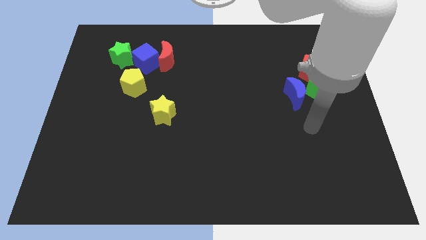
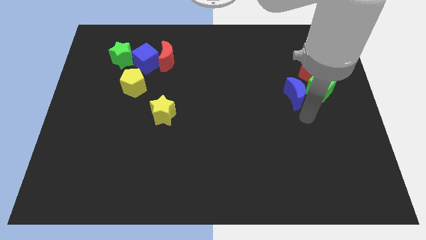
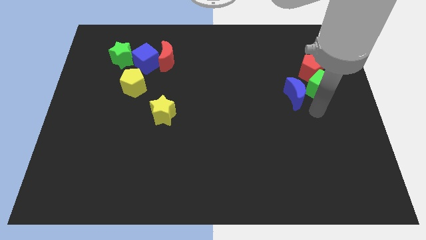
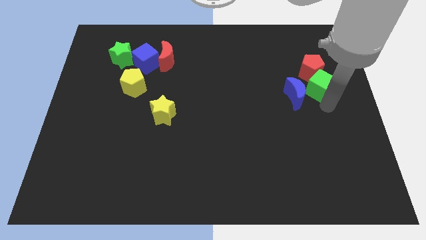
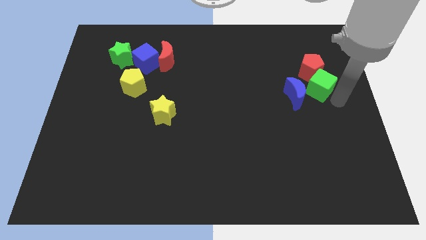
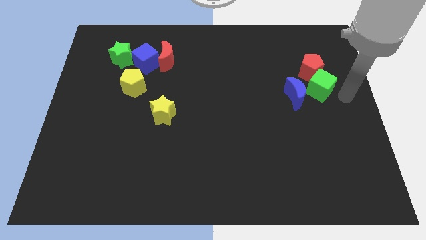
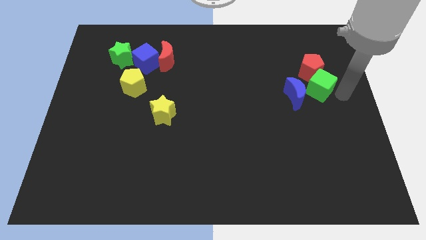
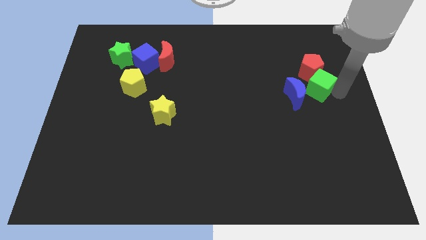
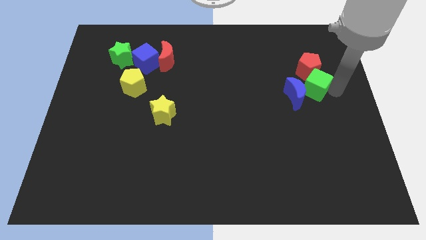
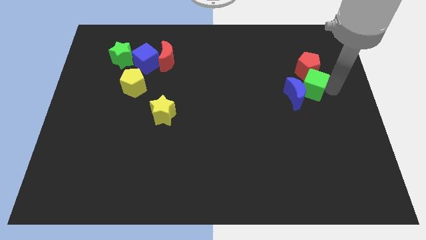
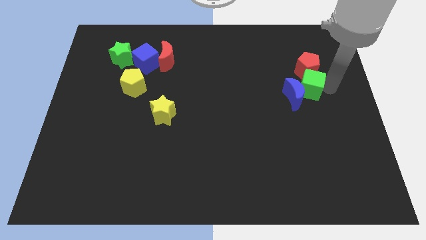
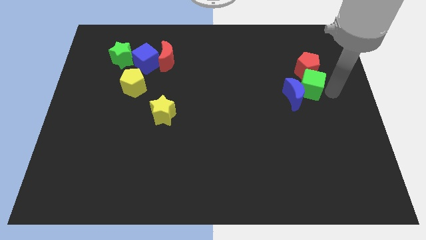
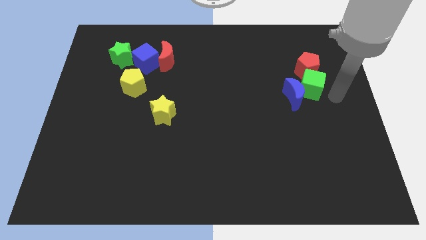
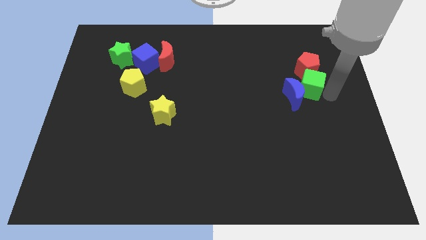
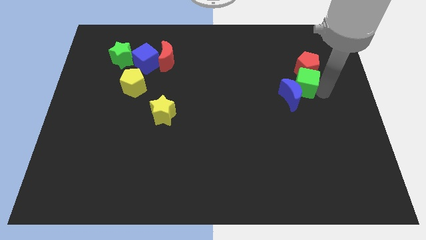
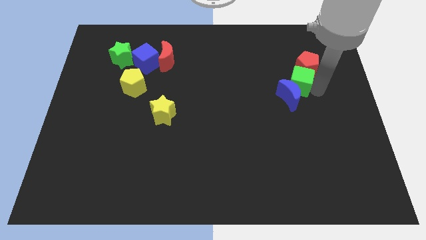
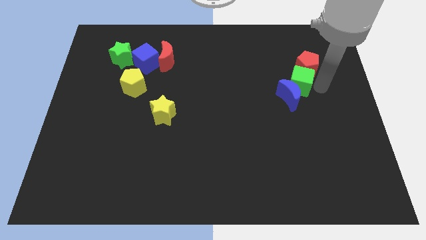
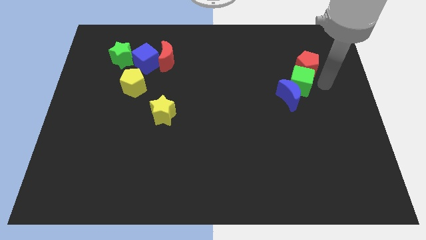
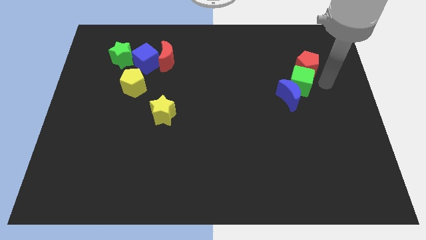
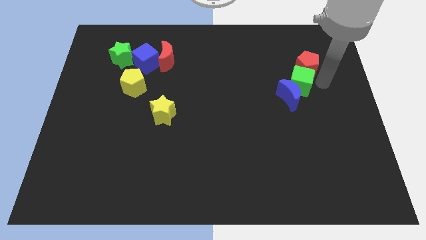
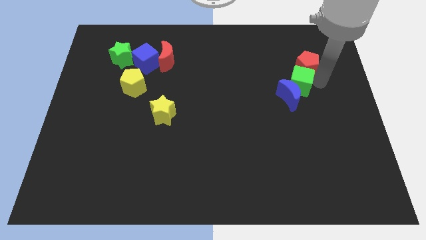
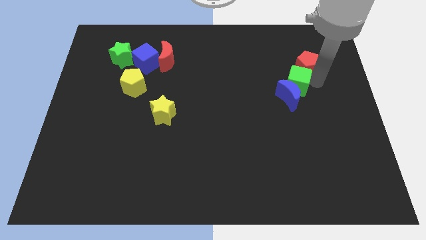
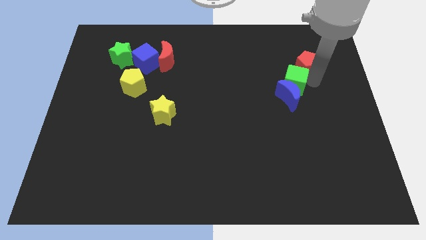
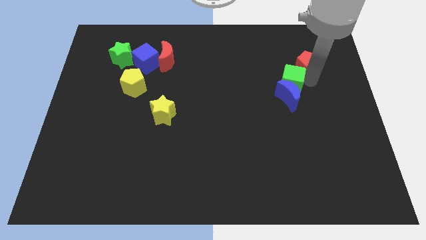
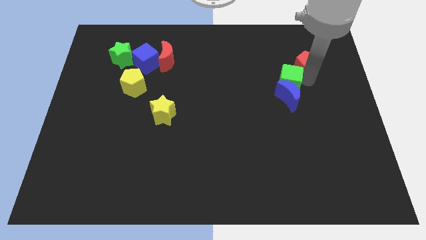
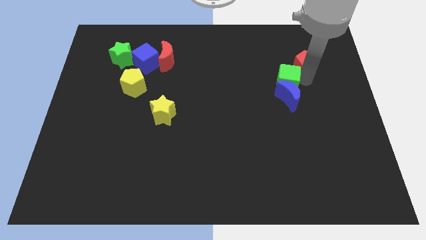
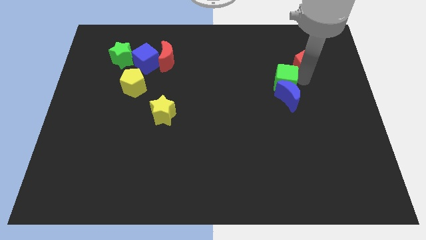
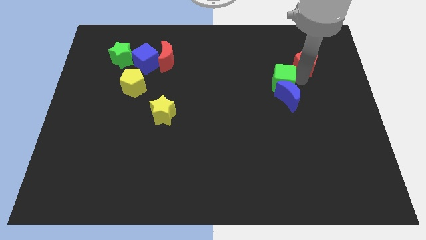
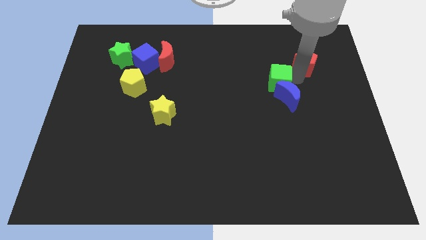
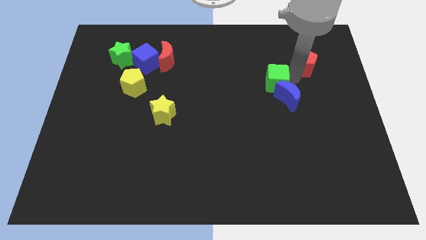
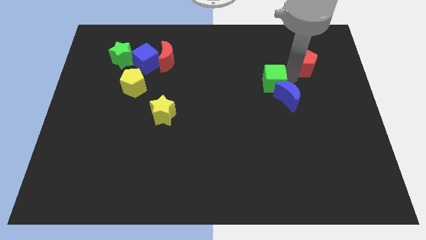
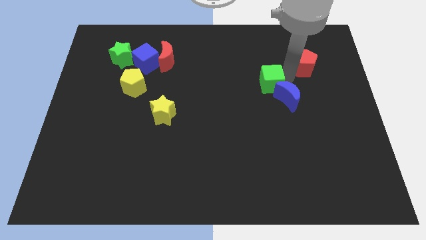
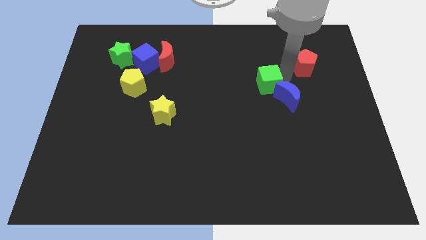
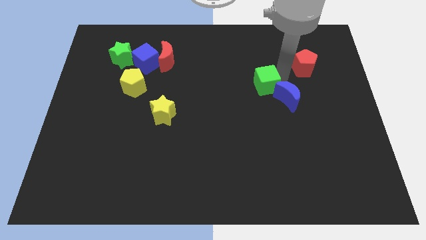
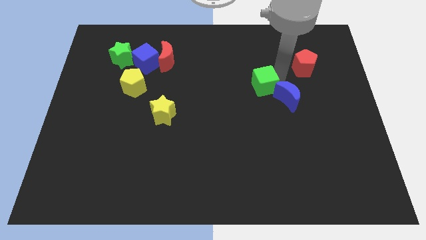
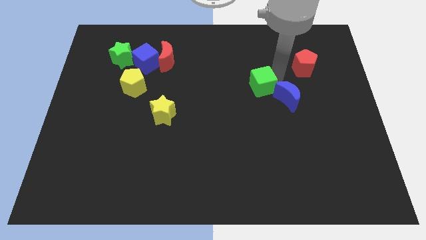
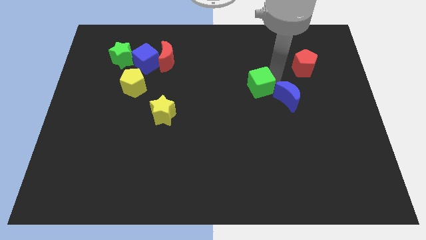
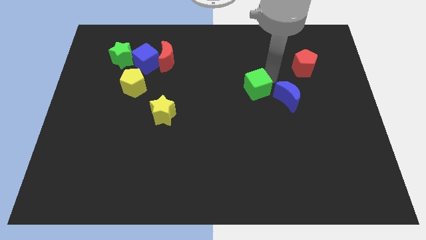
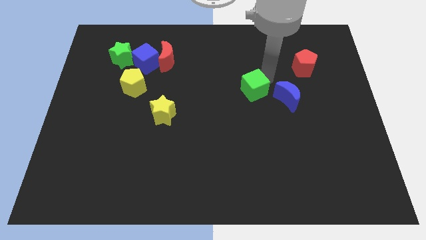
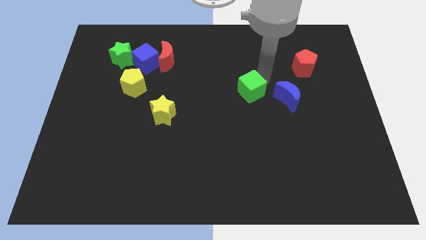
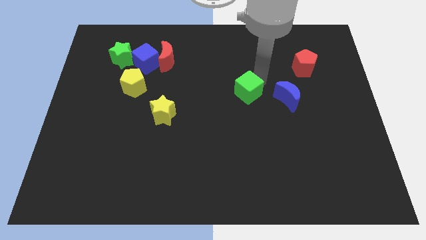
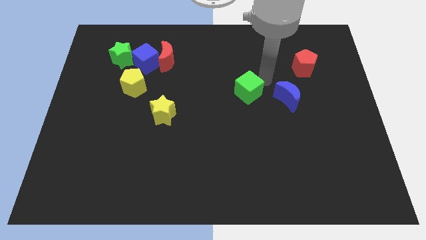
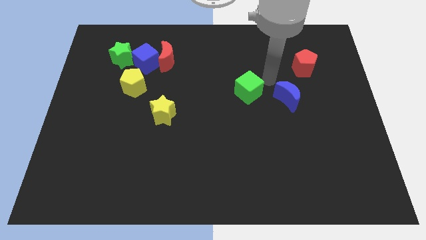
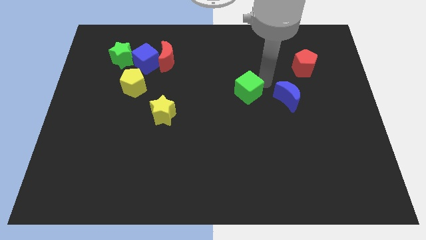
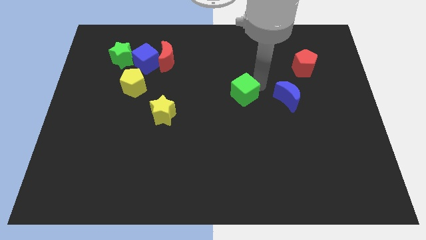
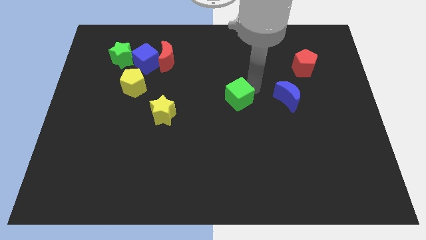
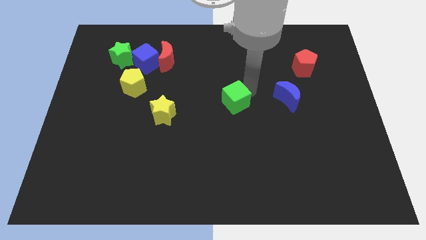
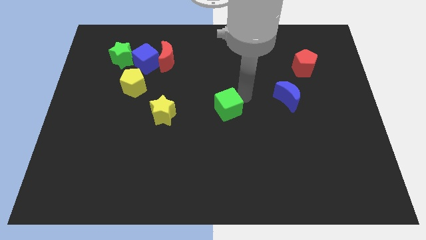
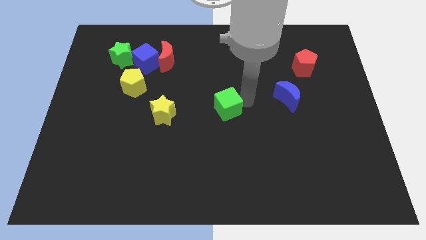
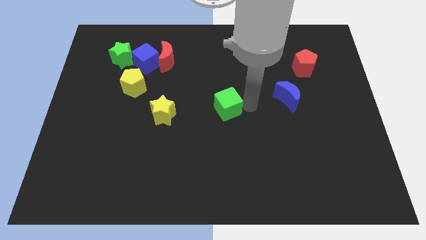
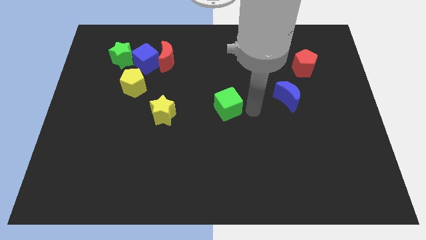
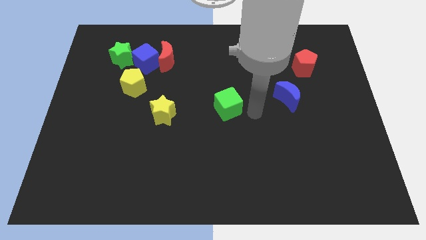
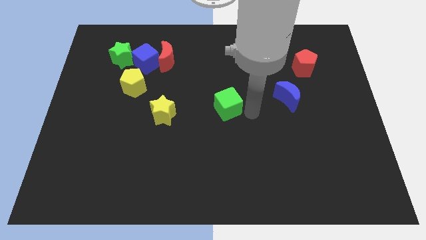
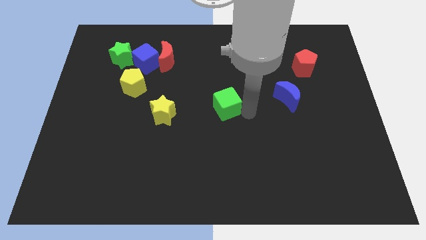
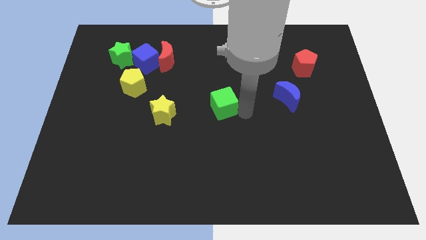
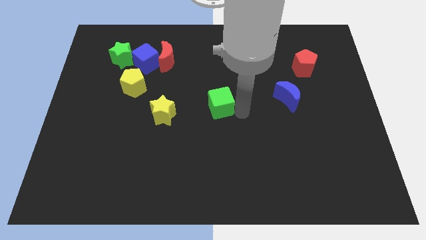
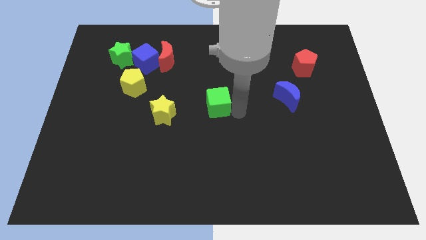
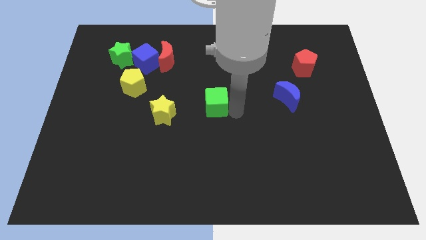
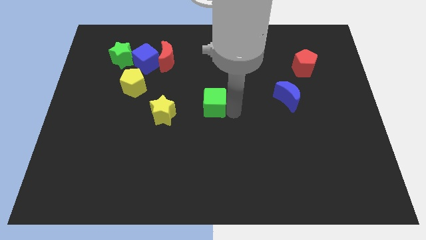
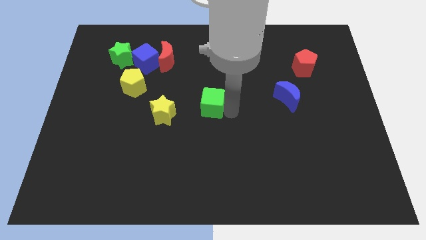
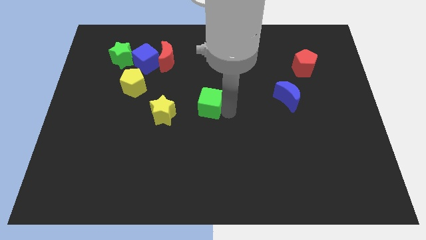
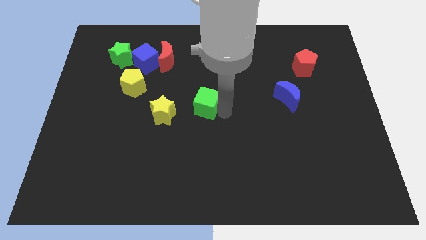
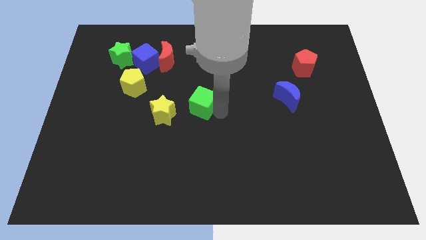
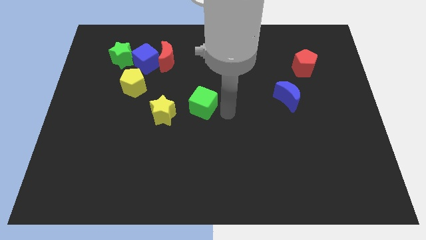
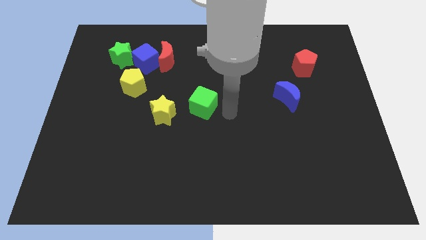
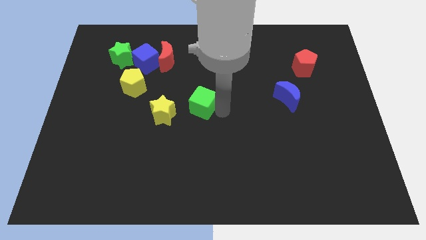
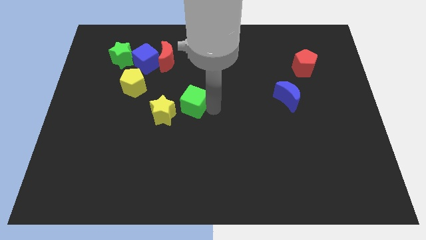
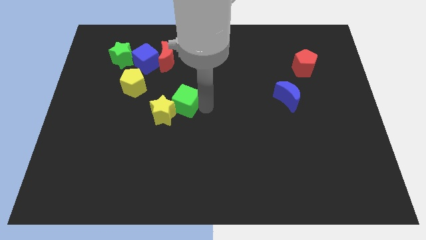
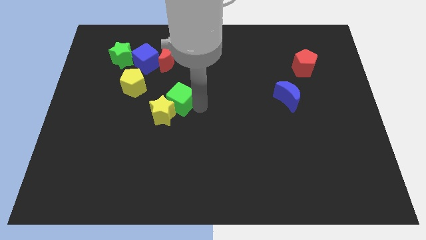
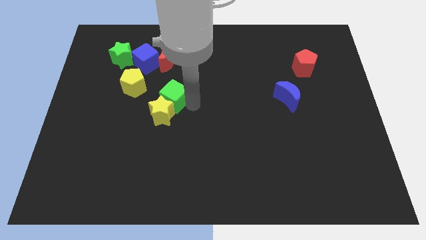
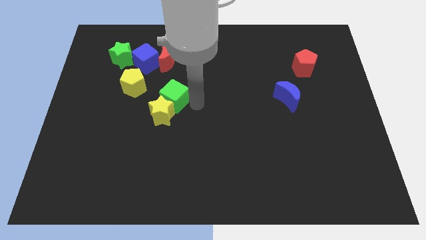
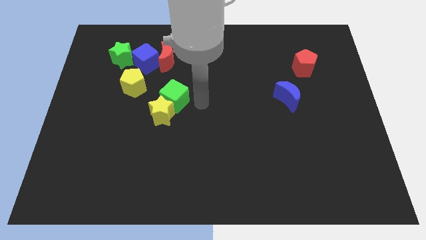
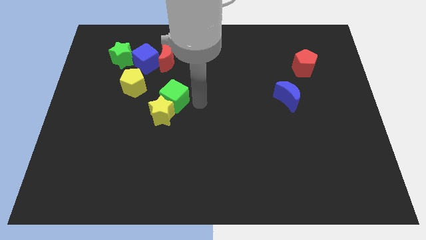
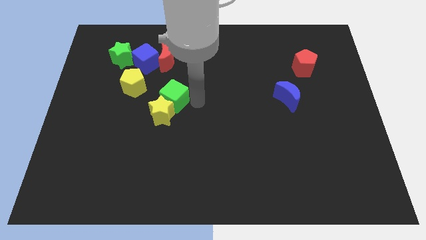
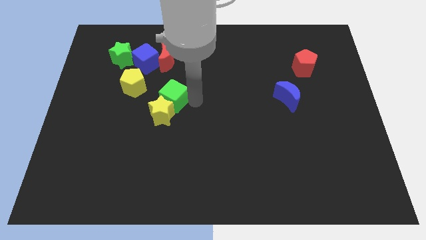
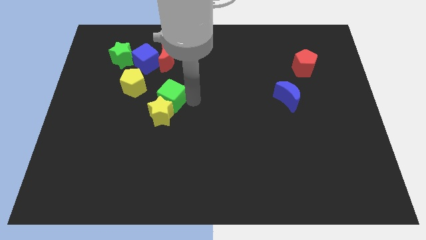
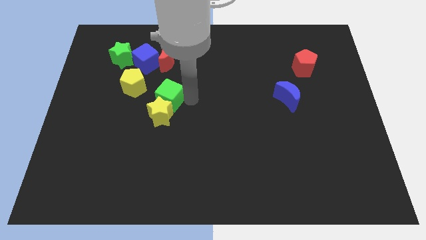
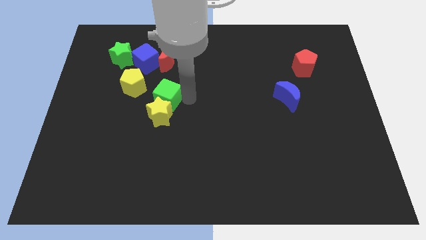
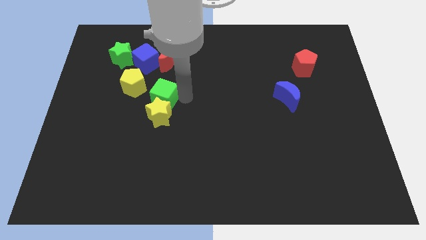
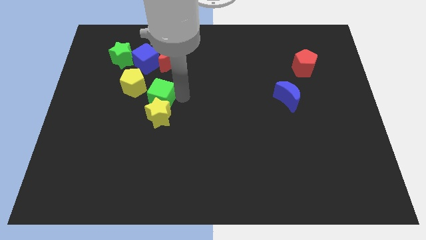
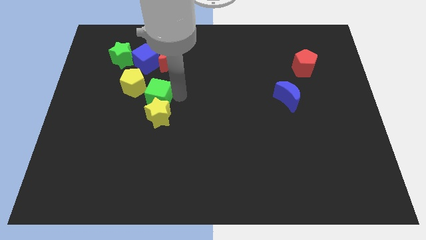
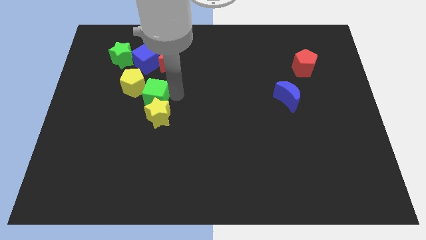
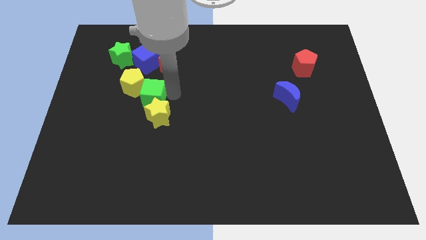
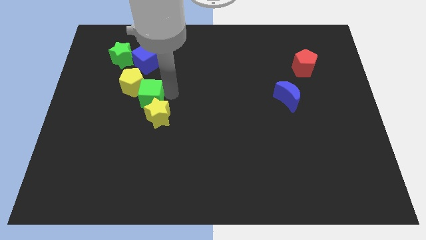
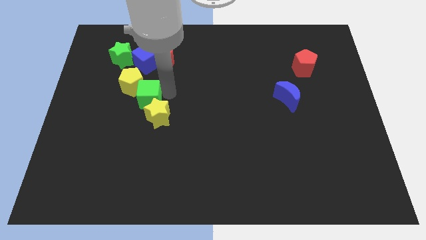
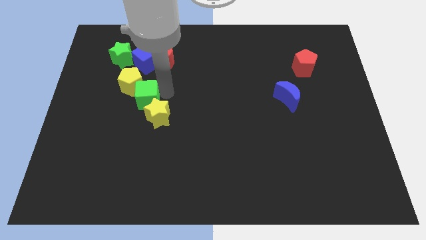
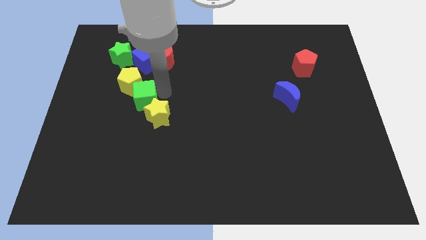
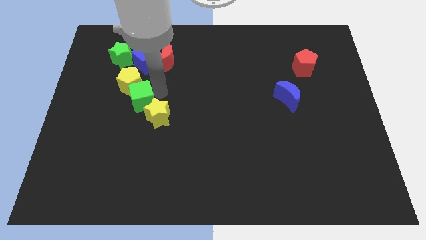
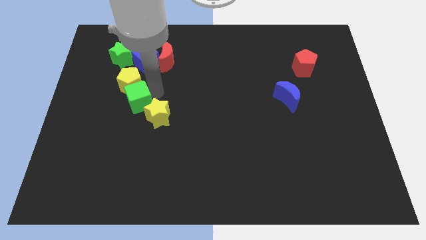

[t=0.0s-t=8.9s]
push the green cube left of the yellow star
